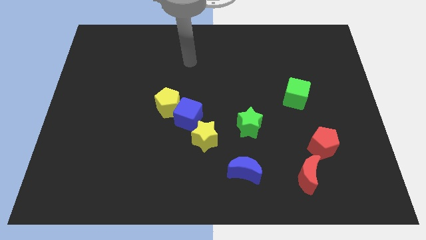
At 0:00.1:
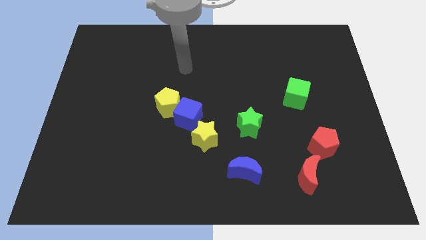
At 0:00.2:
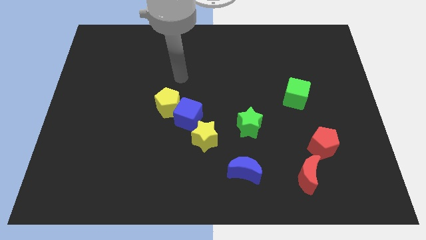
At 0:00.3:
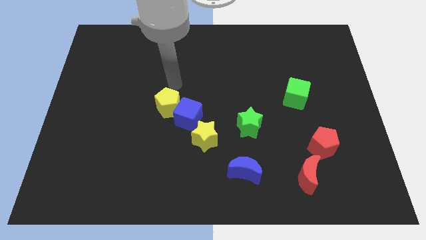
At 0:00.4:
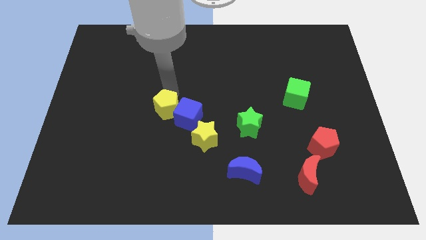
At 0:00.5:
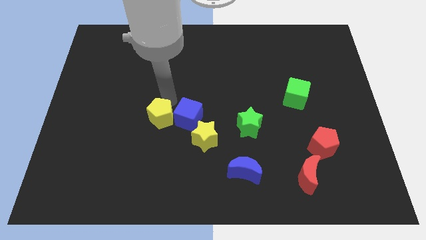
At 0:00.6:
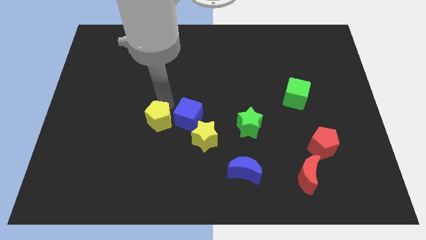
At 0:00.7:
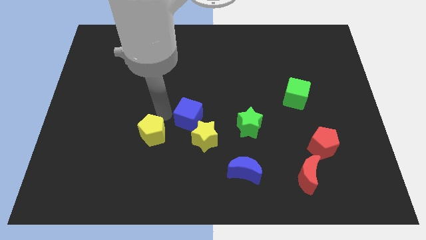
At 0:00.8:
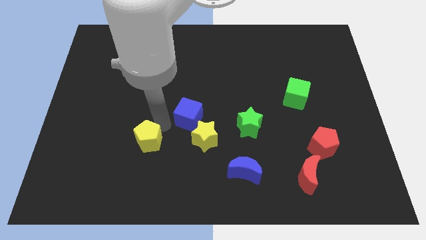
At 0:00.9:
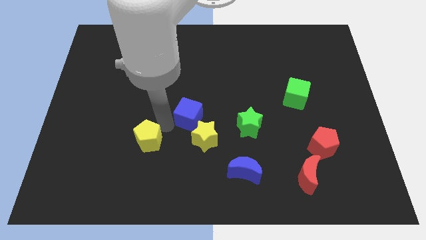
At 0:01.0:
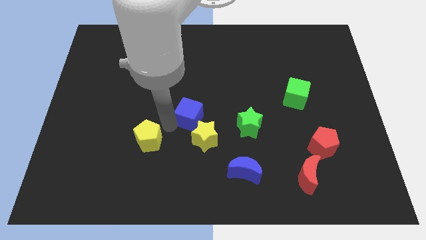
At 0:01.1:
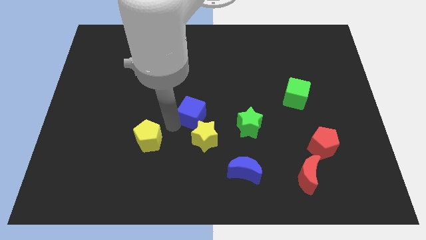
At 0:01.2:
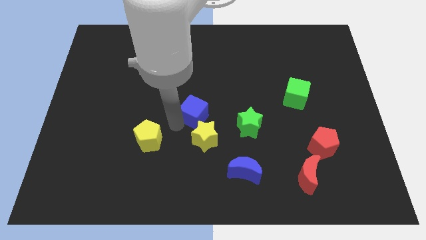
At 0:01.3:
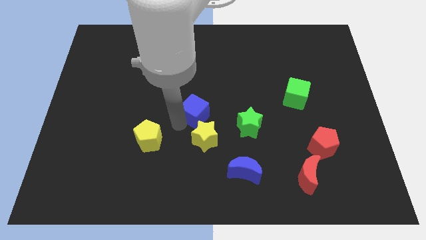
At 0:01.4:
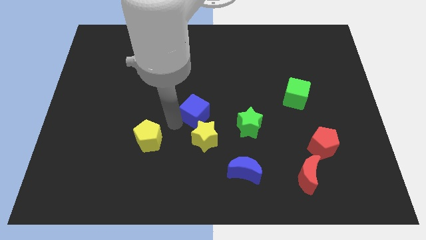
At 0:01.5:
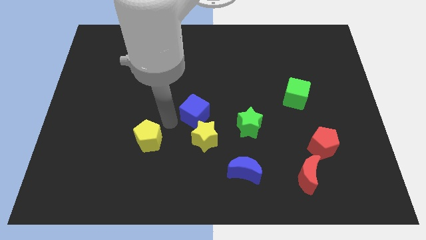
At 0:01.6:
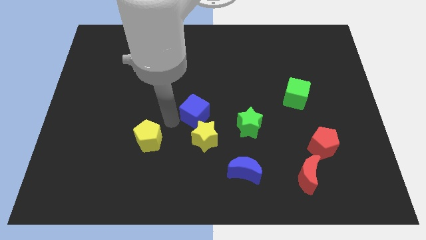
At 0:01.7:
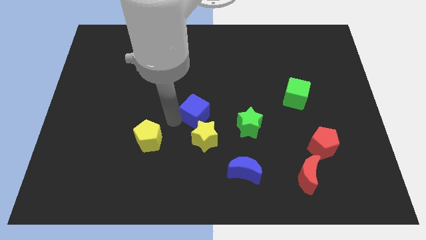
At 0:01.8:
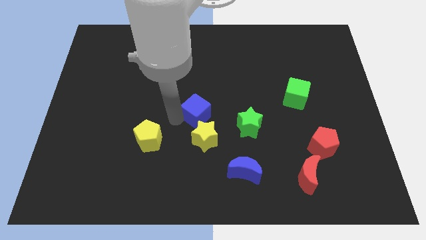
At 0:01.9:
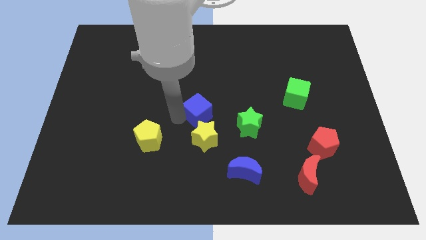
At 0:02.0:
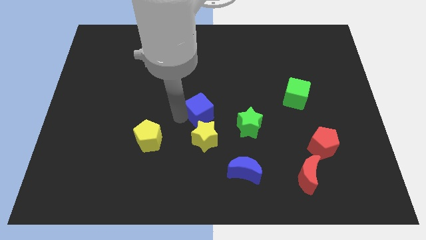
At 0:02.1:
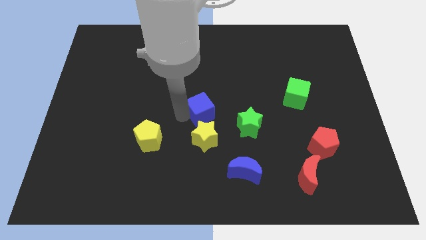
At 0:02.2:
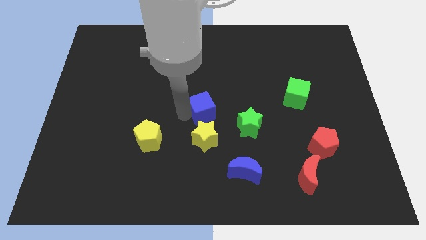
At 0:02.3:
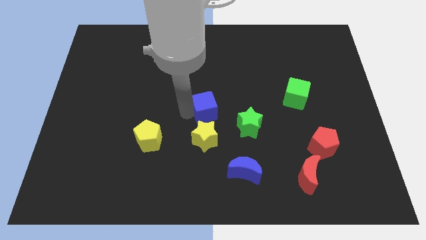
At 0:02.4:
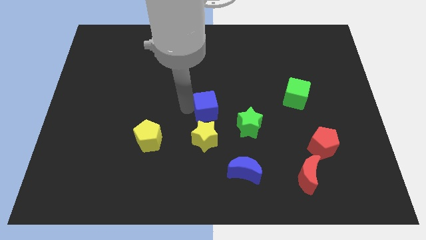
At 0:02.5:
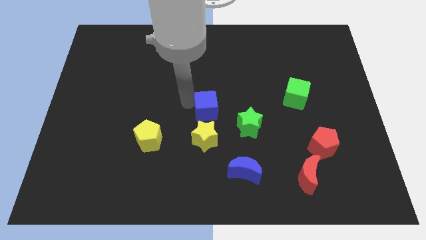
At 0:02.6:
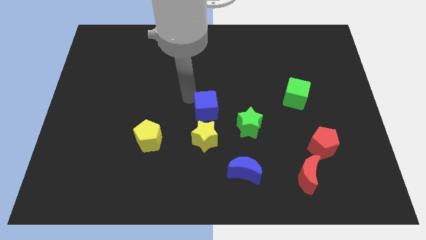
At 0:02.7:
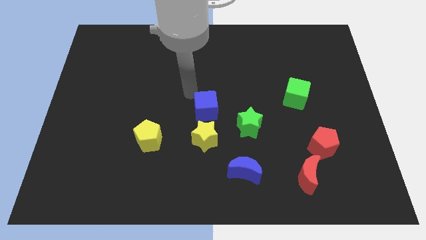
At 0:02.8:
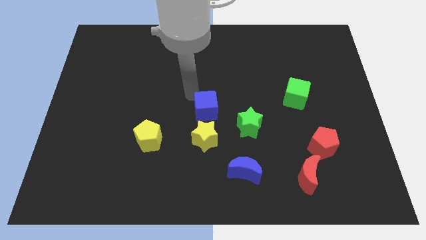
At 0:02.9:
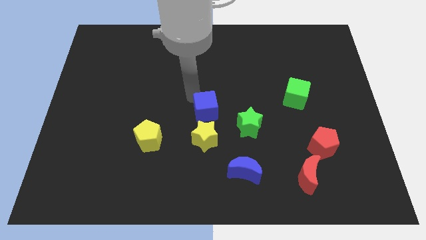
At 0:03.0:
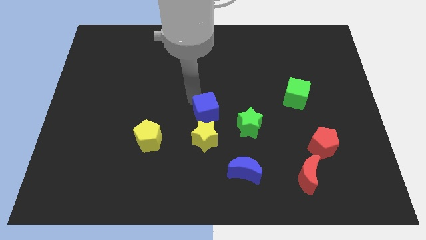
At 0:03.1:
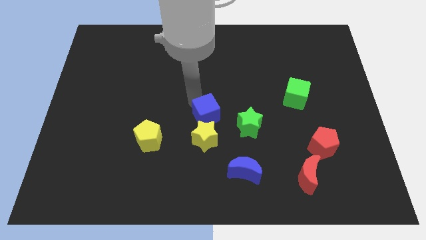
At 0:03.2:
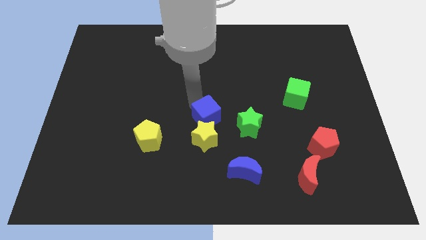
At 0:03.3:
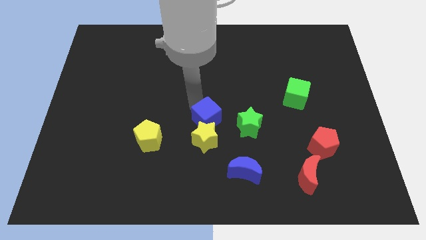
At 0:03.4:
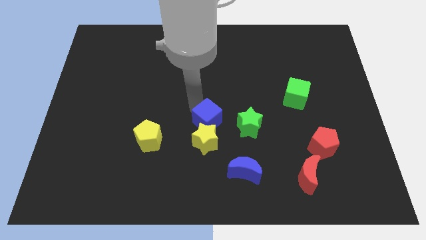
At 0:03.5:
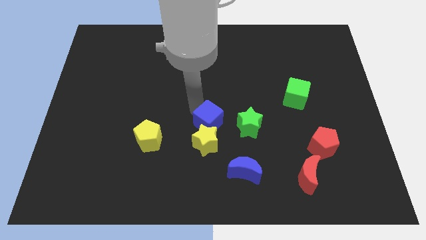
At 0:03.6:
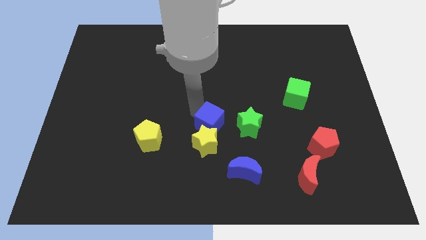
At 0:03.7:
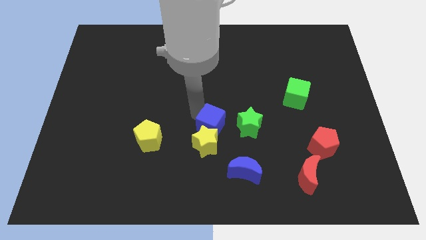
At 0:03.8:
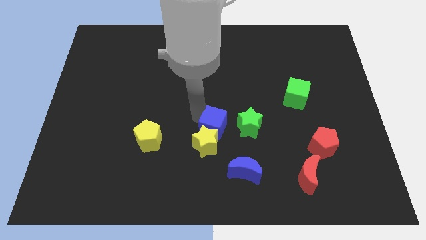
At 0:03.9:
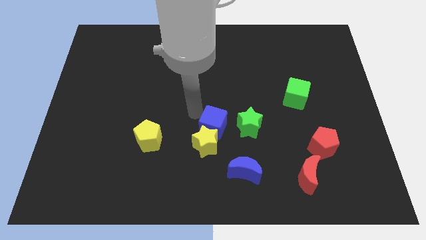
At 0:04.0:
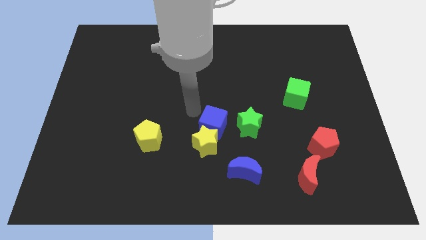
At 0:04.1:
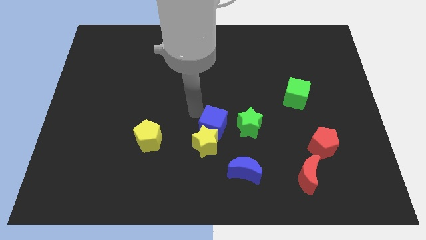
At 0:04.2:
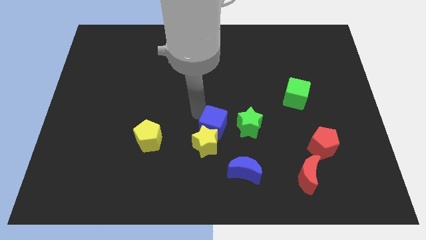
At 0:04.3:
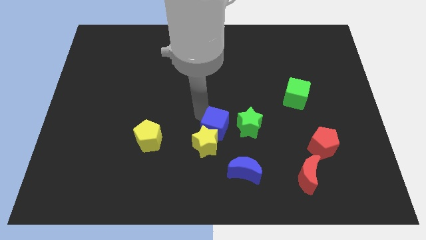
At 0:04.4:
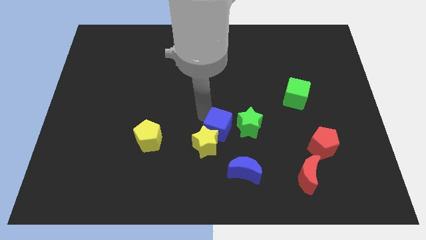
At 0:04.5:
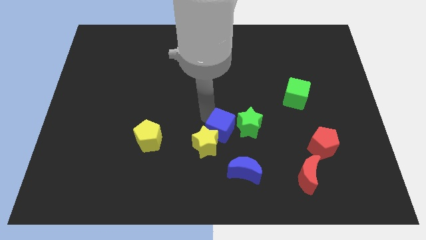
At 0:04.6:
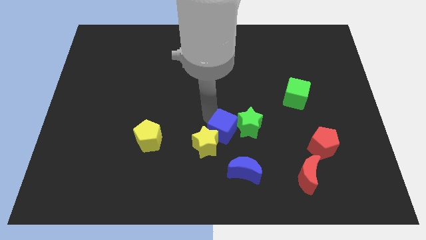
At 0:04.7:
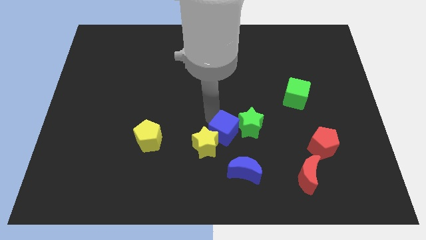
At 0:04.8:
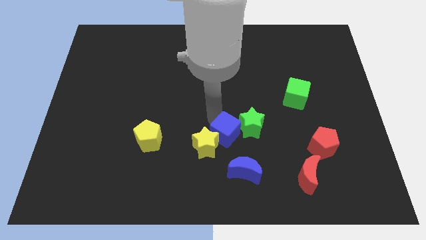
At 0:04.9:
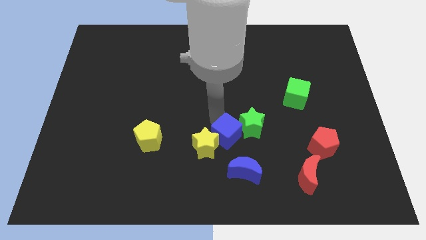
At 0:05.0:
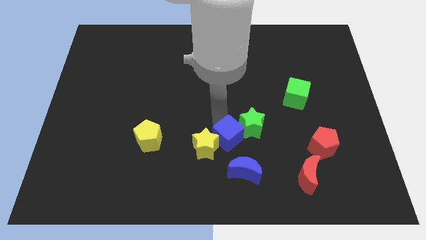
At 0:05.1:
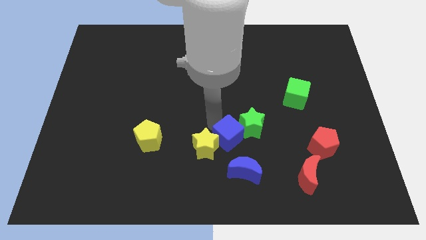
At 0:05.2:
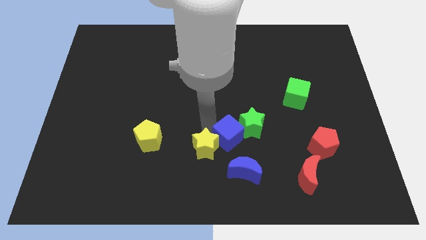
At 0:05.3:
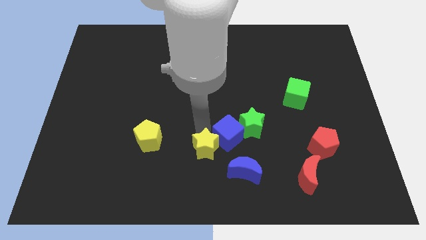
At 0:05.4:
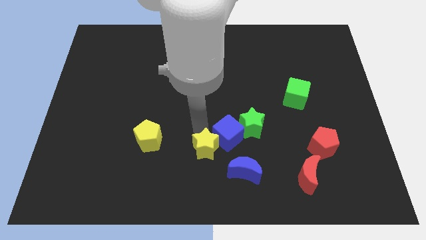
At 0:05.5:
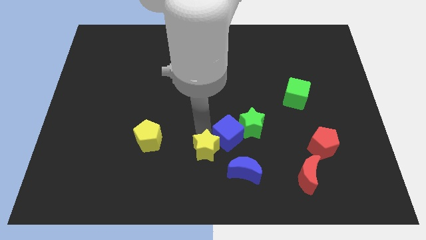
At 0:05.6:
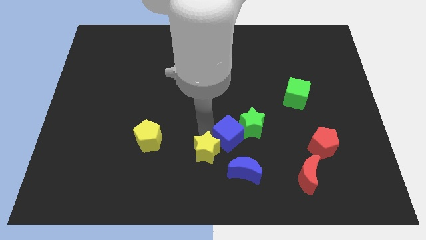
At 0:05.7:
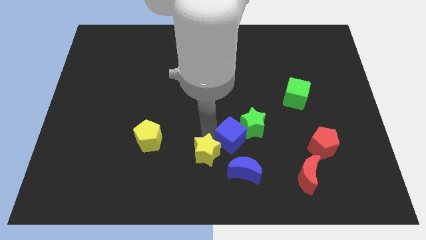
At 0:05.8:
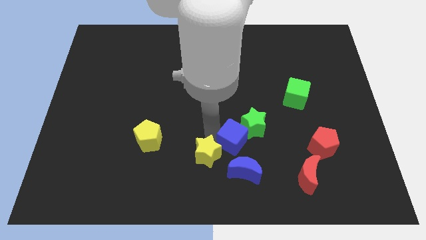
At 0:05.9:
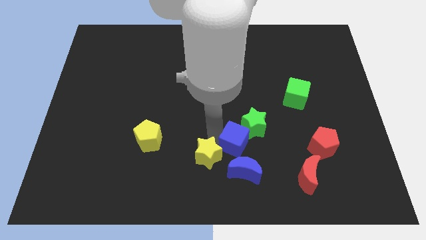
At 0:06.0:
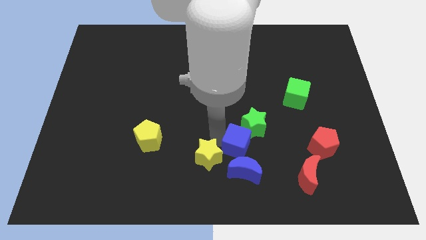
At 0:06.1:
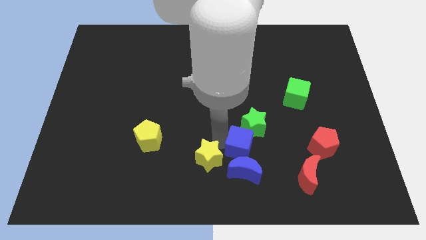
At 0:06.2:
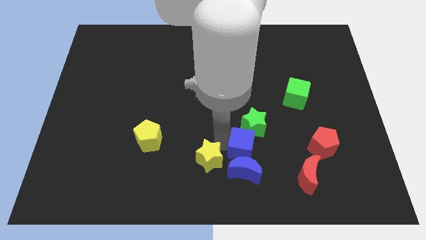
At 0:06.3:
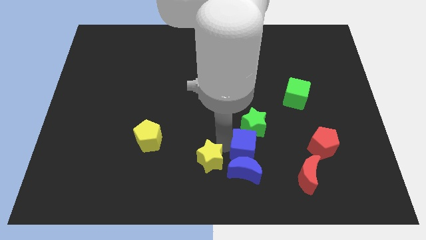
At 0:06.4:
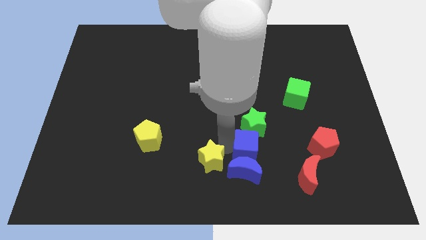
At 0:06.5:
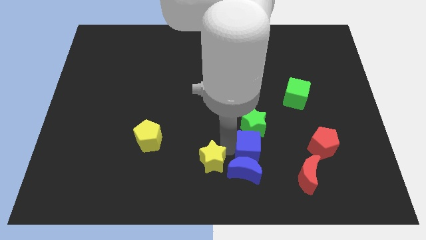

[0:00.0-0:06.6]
put the blue cube to the left side of the red pentagon
